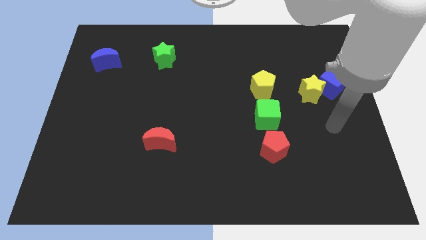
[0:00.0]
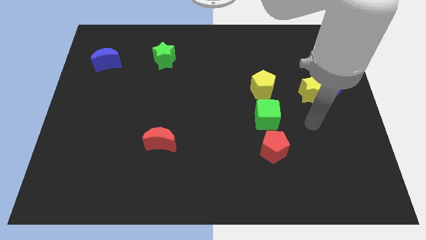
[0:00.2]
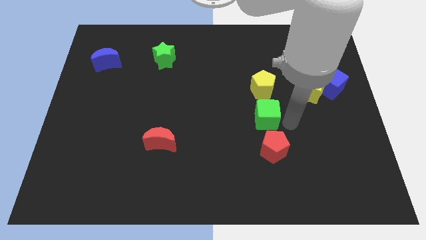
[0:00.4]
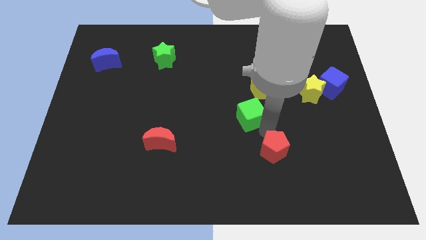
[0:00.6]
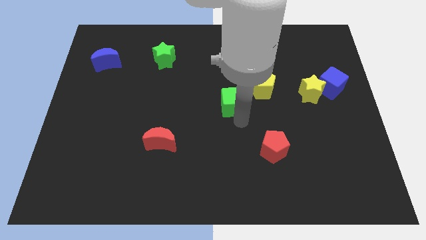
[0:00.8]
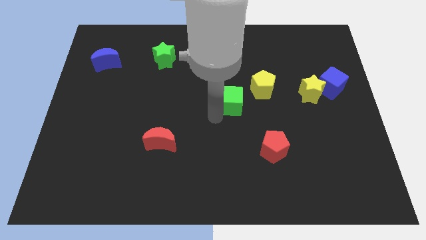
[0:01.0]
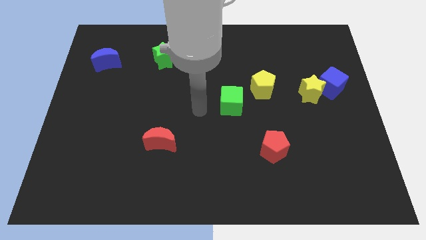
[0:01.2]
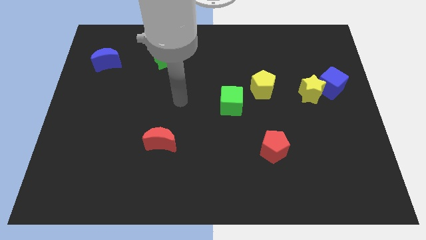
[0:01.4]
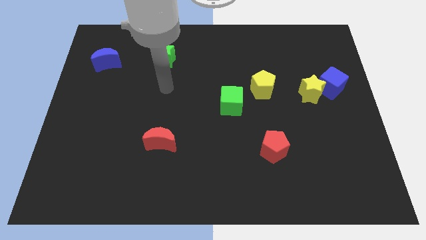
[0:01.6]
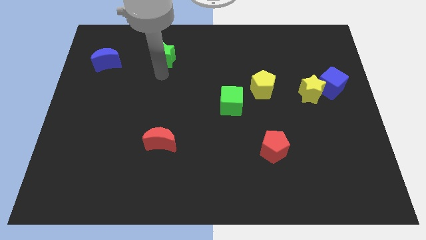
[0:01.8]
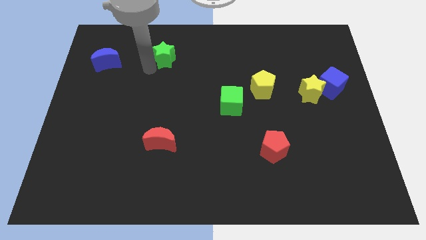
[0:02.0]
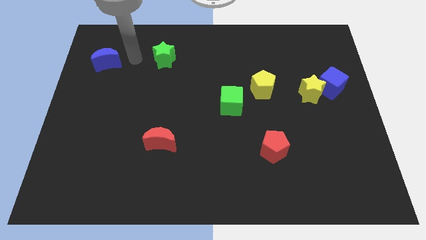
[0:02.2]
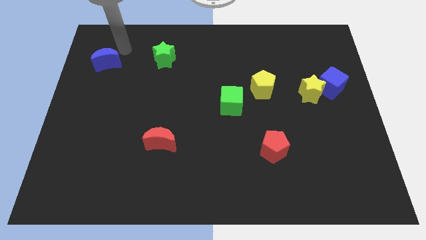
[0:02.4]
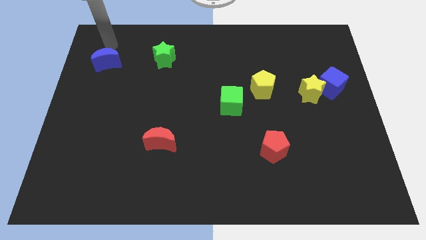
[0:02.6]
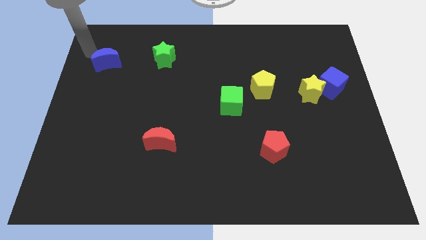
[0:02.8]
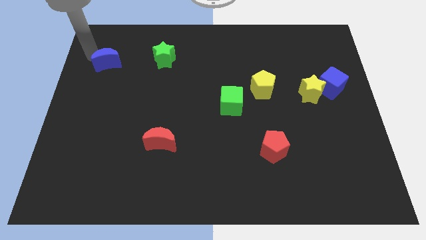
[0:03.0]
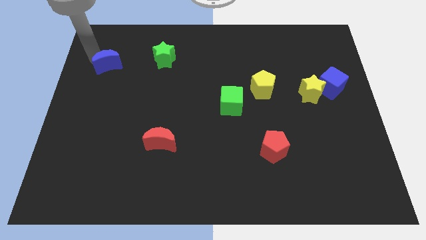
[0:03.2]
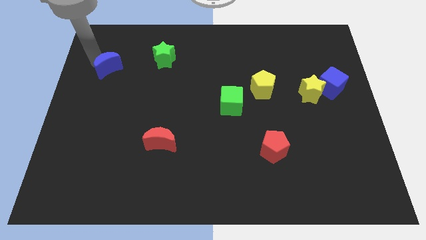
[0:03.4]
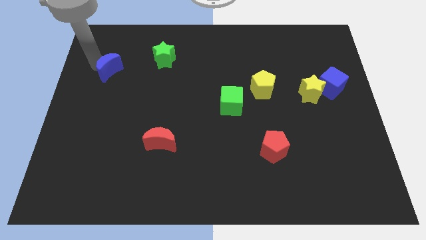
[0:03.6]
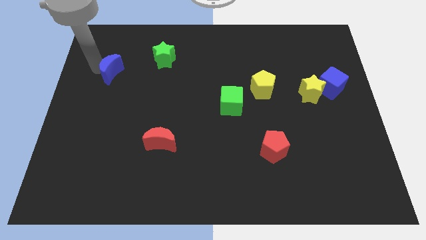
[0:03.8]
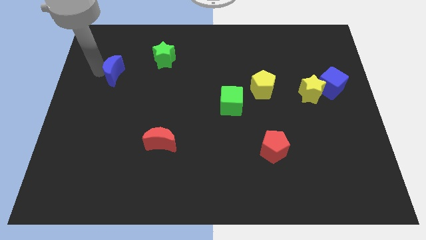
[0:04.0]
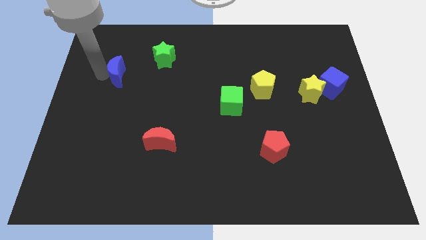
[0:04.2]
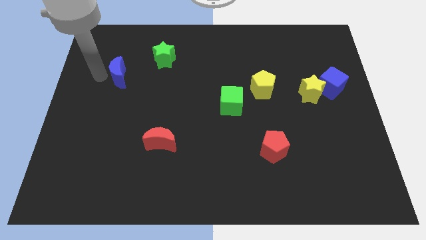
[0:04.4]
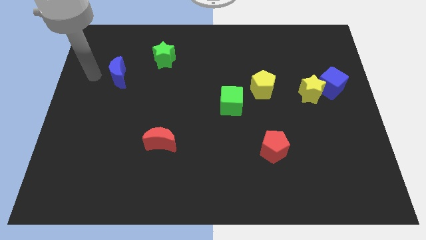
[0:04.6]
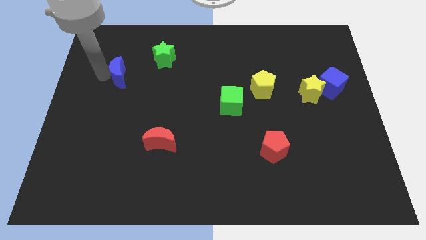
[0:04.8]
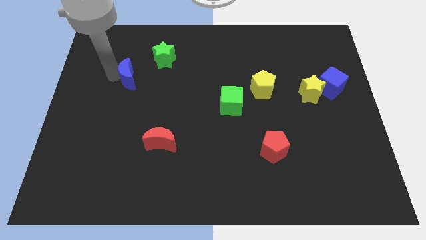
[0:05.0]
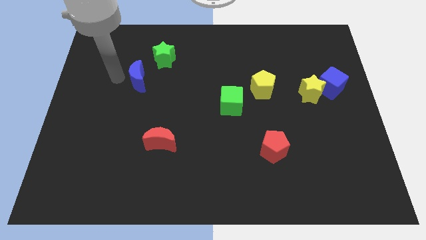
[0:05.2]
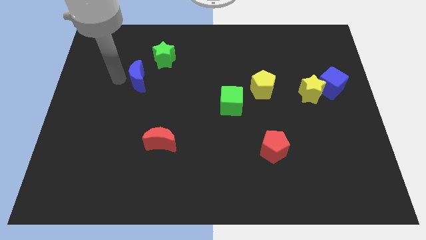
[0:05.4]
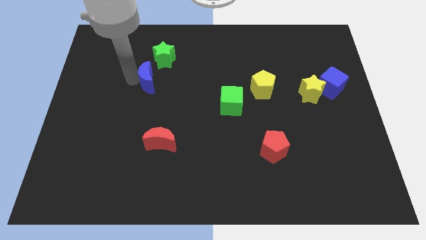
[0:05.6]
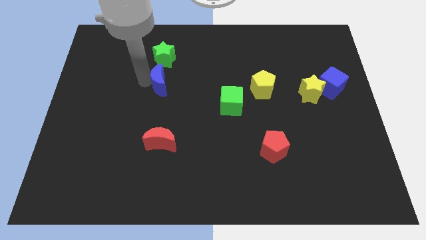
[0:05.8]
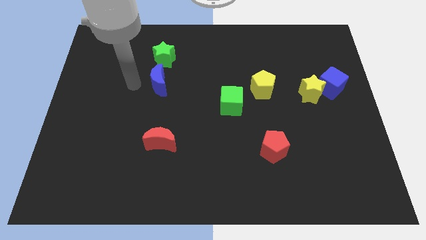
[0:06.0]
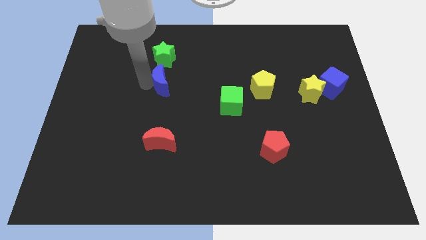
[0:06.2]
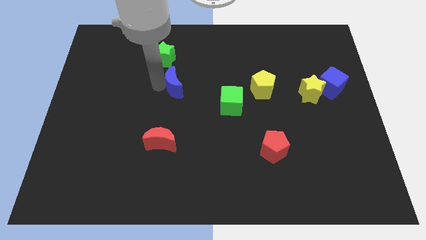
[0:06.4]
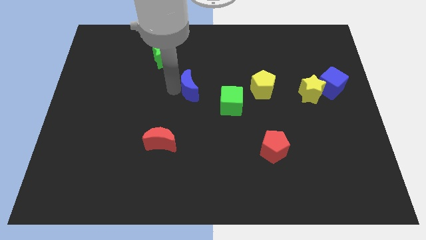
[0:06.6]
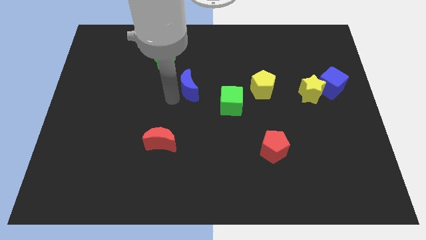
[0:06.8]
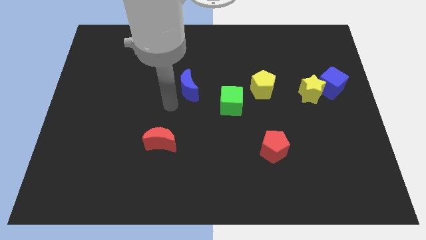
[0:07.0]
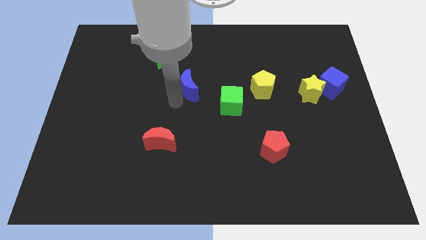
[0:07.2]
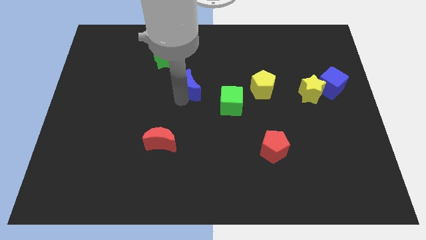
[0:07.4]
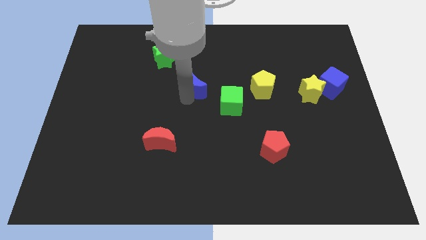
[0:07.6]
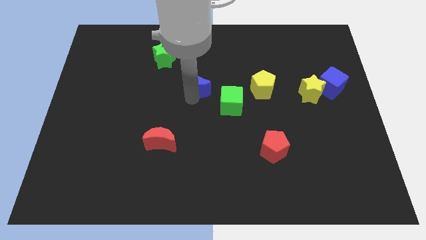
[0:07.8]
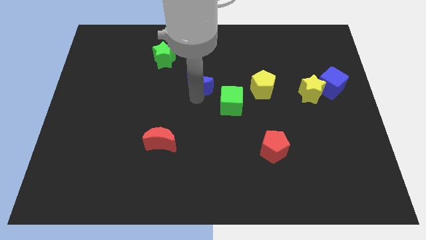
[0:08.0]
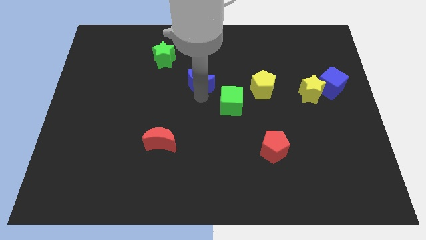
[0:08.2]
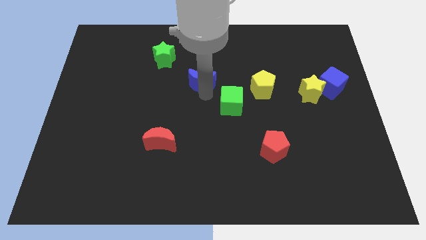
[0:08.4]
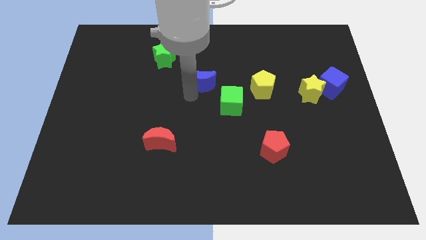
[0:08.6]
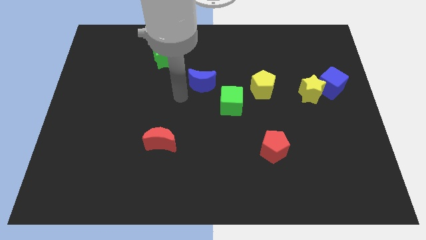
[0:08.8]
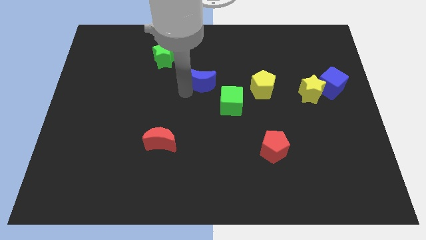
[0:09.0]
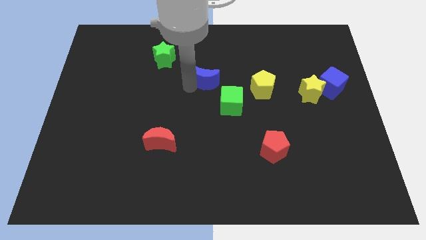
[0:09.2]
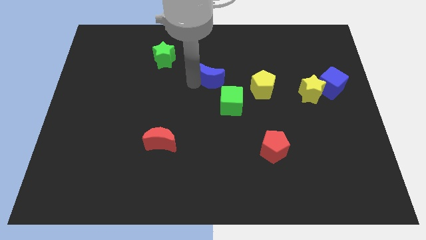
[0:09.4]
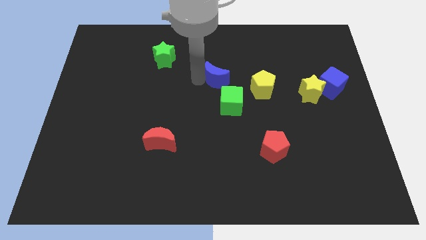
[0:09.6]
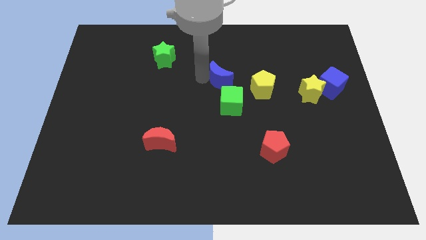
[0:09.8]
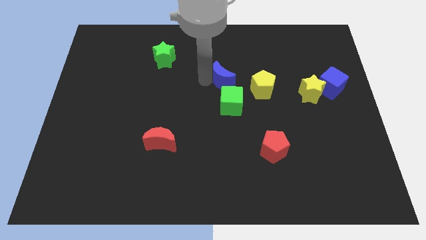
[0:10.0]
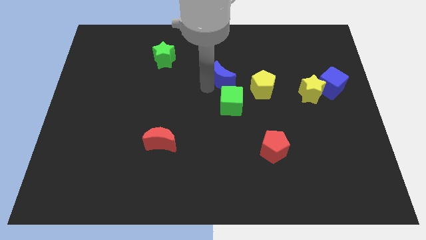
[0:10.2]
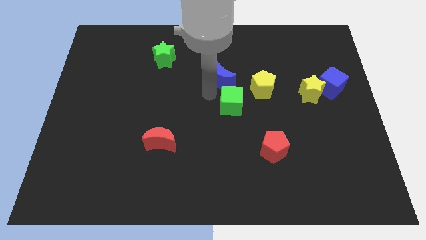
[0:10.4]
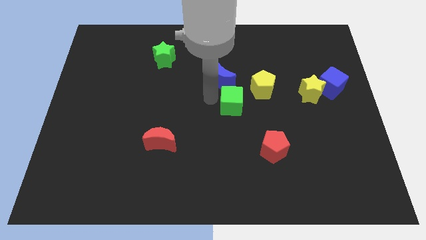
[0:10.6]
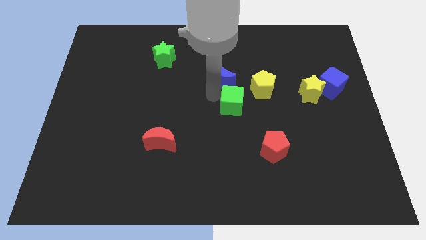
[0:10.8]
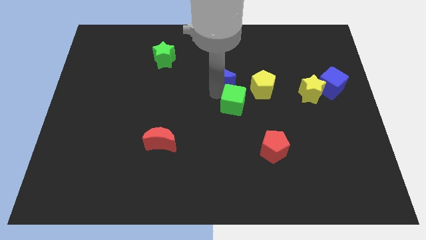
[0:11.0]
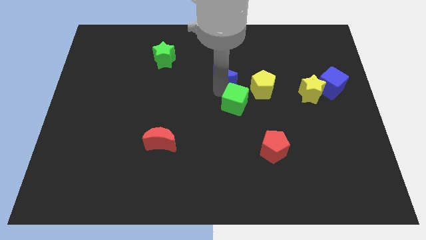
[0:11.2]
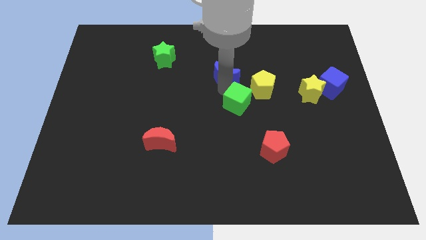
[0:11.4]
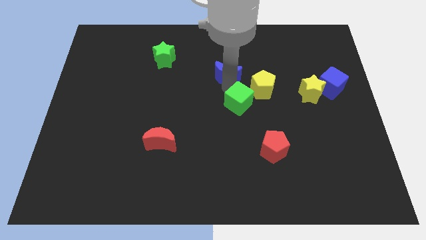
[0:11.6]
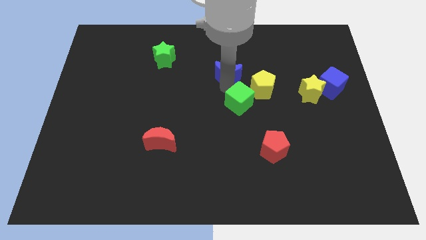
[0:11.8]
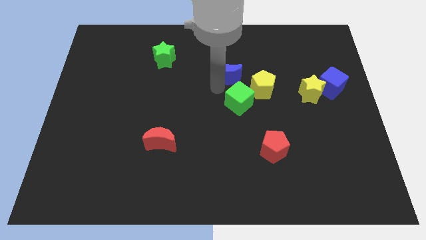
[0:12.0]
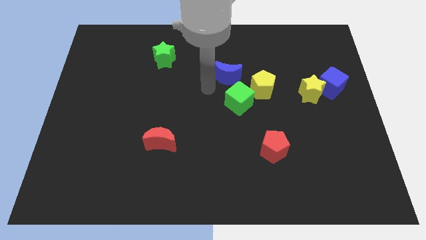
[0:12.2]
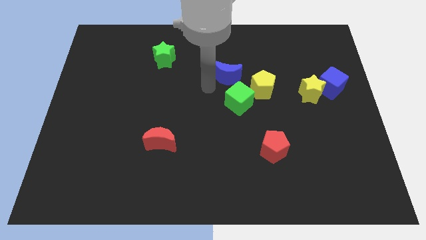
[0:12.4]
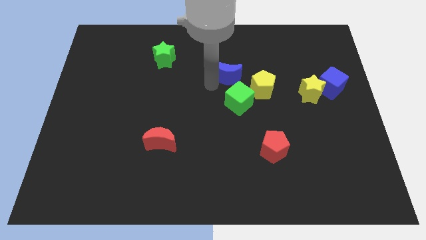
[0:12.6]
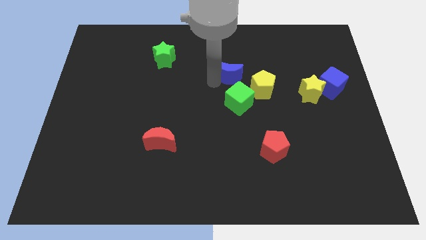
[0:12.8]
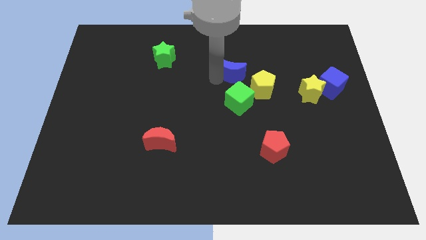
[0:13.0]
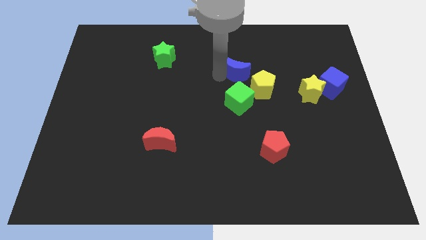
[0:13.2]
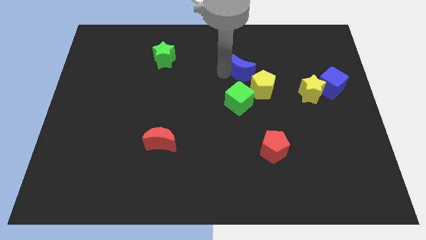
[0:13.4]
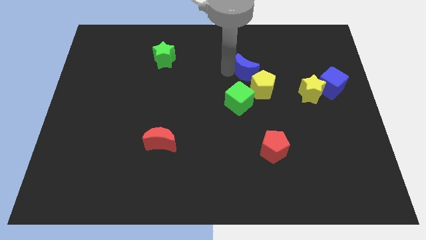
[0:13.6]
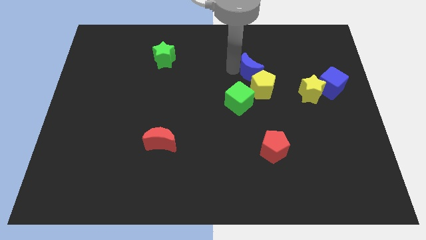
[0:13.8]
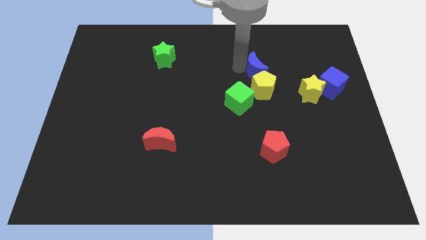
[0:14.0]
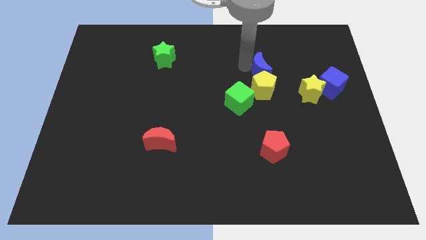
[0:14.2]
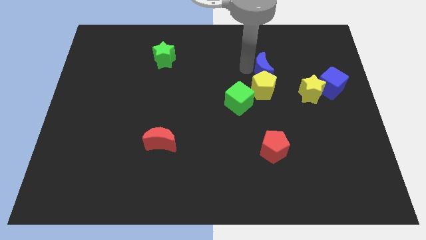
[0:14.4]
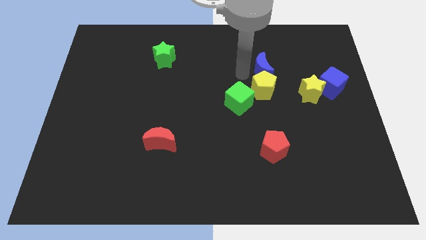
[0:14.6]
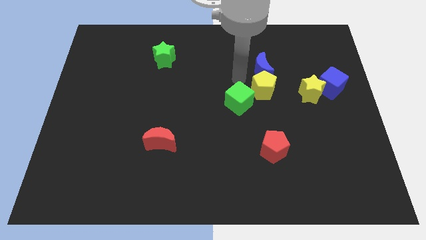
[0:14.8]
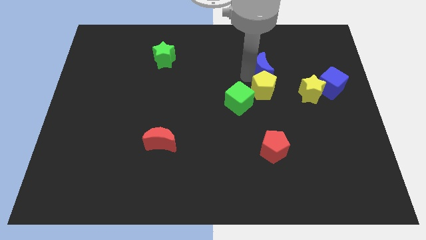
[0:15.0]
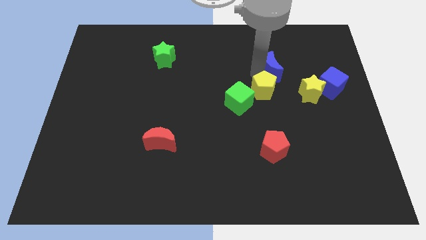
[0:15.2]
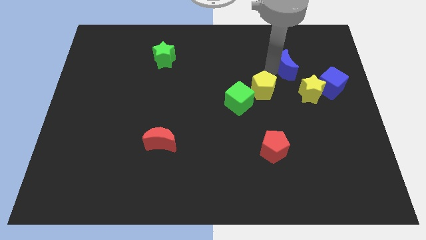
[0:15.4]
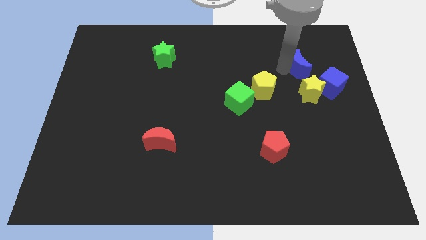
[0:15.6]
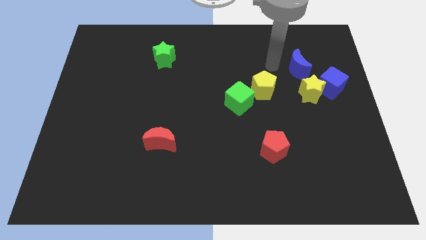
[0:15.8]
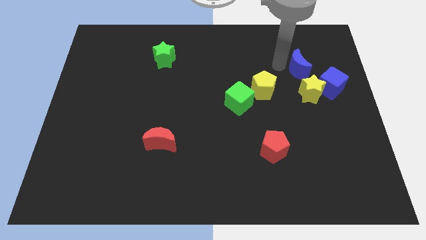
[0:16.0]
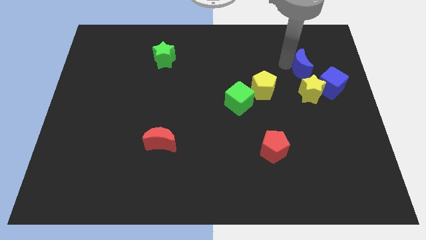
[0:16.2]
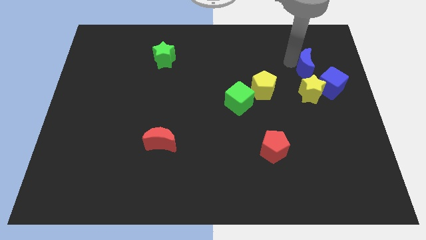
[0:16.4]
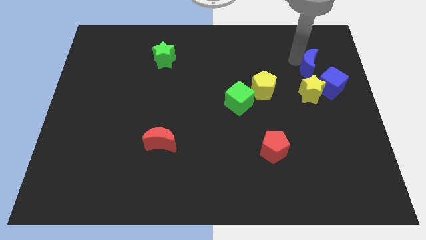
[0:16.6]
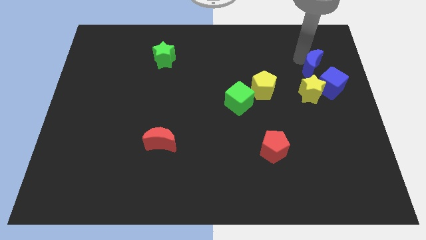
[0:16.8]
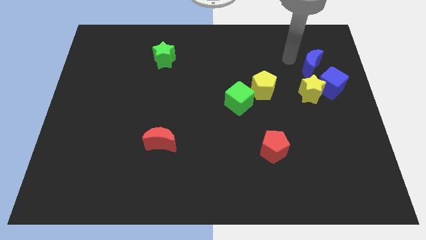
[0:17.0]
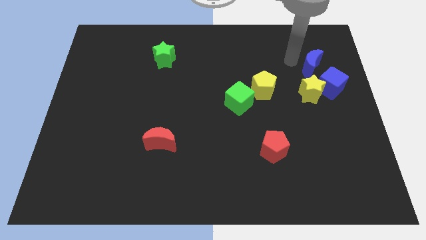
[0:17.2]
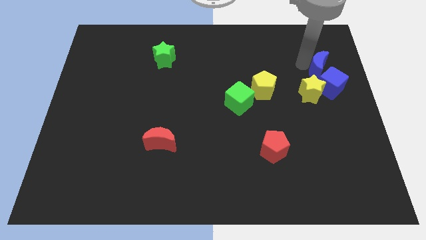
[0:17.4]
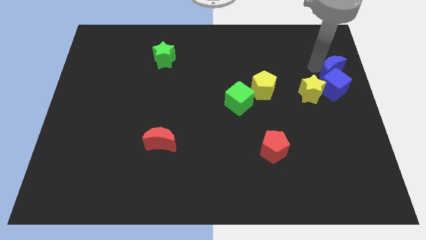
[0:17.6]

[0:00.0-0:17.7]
put the blue moon to the center right
